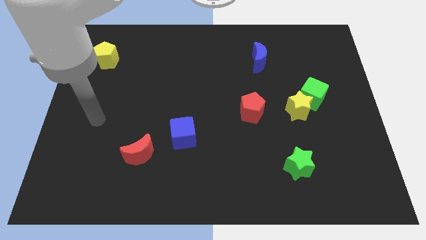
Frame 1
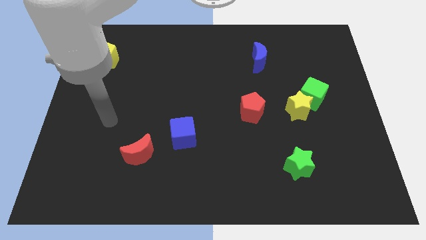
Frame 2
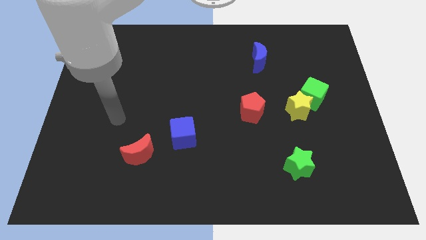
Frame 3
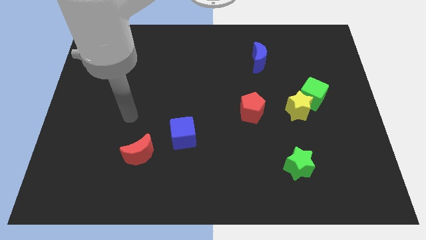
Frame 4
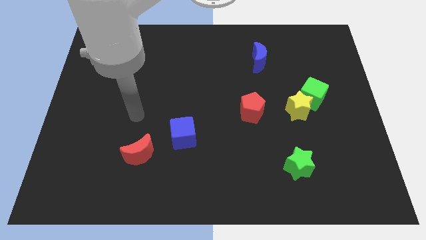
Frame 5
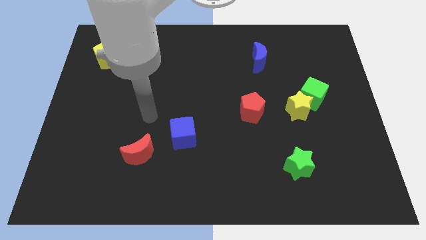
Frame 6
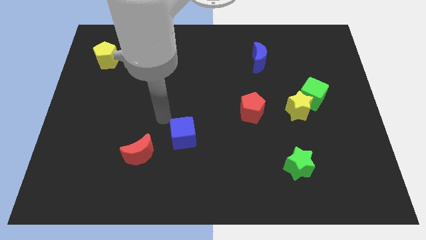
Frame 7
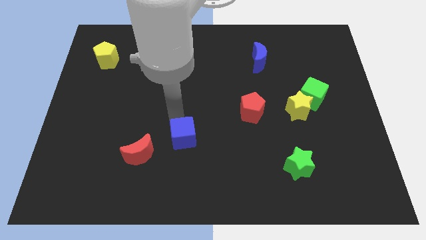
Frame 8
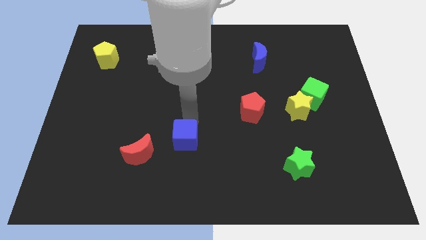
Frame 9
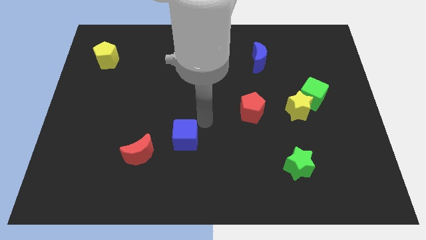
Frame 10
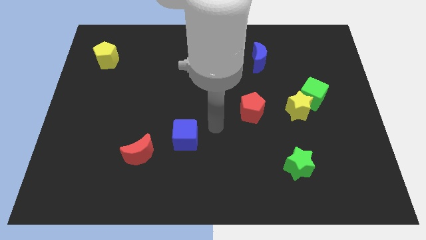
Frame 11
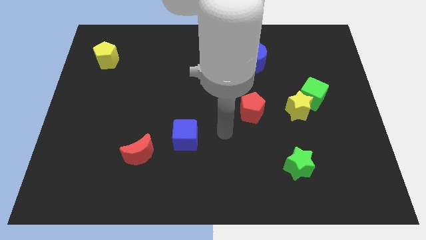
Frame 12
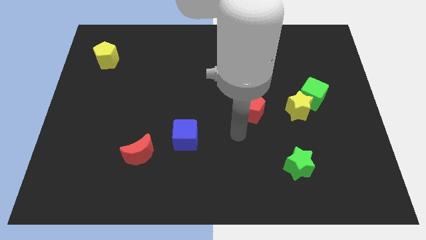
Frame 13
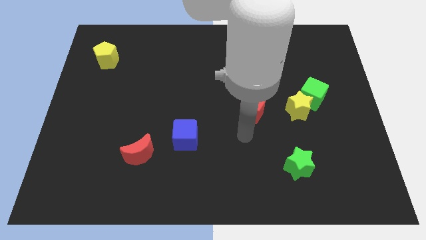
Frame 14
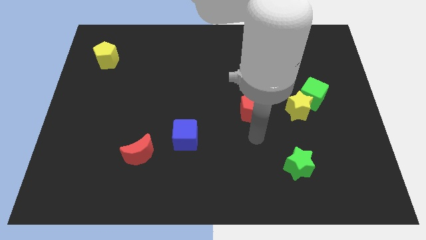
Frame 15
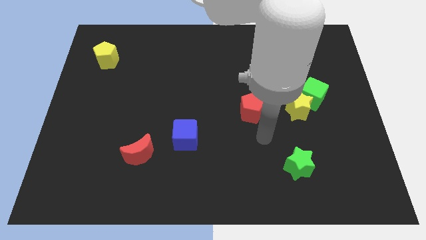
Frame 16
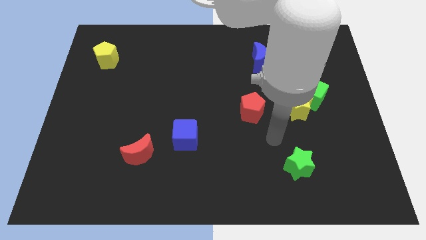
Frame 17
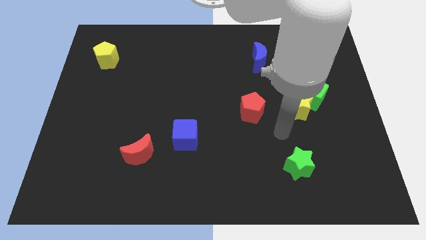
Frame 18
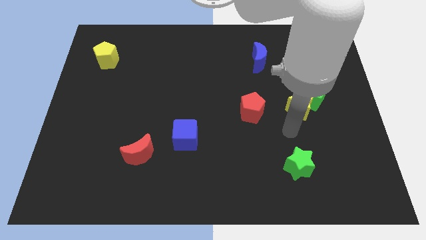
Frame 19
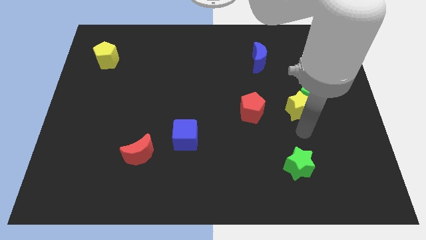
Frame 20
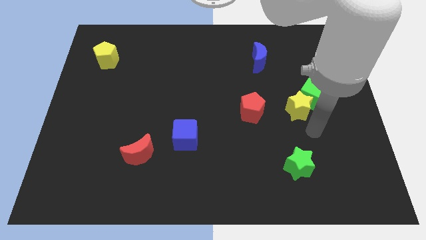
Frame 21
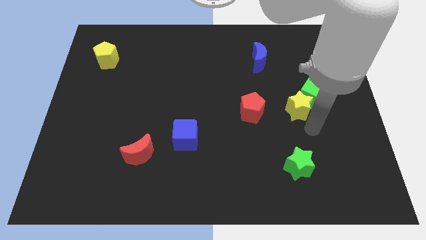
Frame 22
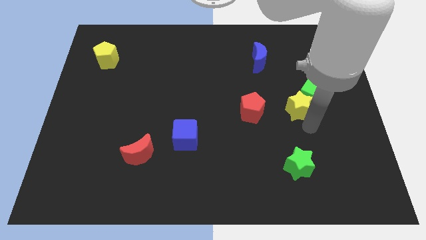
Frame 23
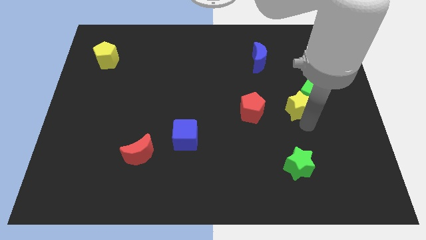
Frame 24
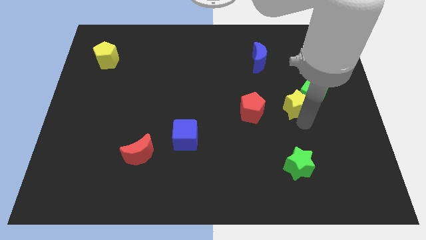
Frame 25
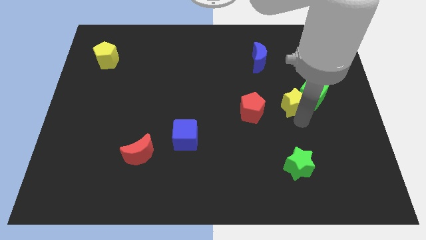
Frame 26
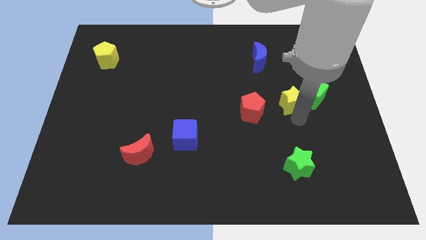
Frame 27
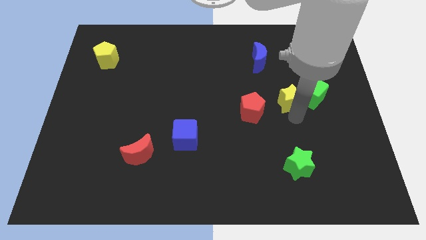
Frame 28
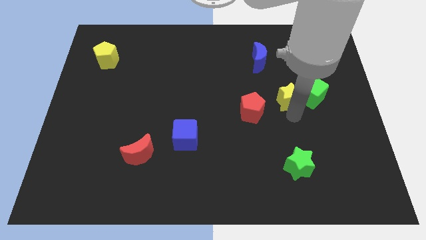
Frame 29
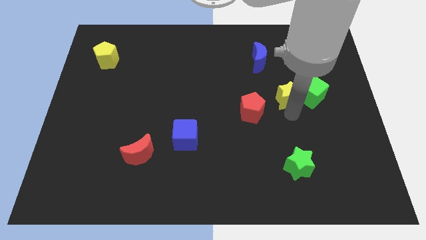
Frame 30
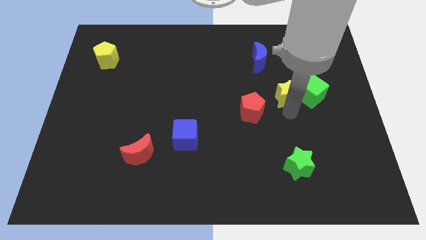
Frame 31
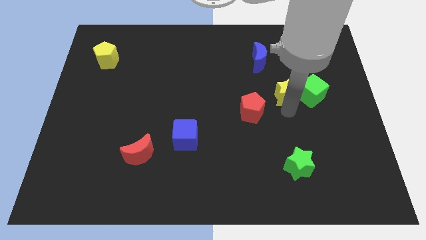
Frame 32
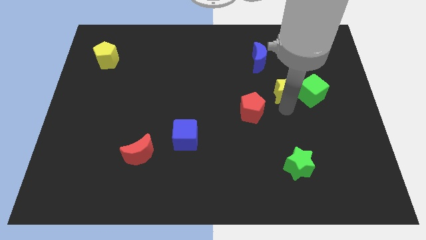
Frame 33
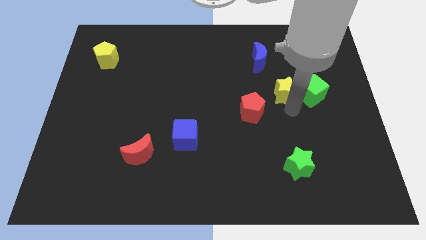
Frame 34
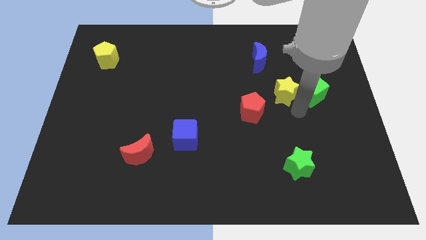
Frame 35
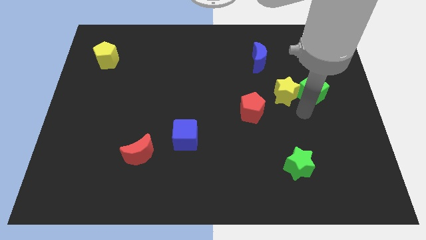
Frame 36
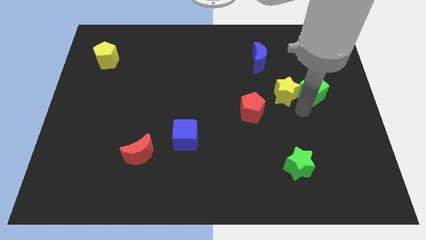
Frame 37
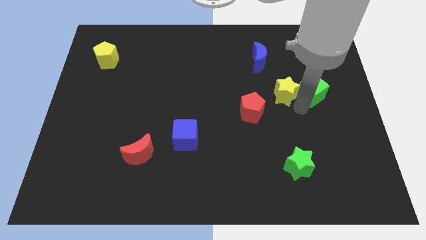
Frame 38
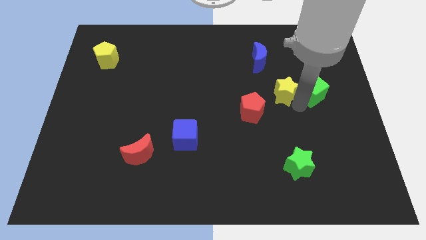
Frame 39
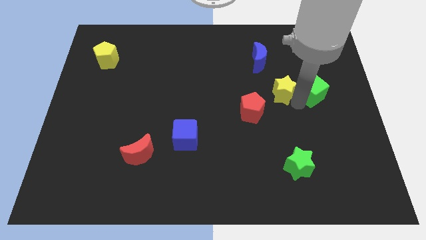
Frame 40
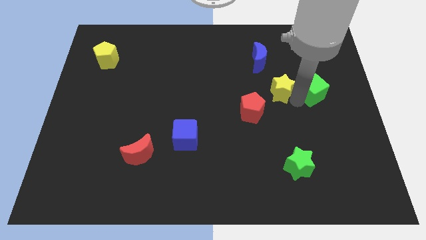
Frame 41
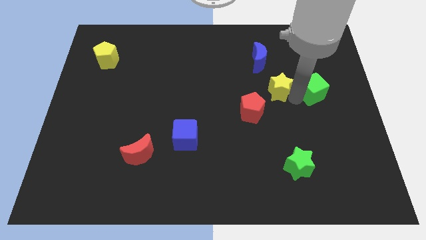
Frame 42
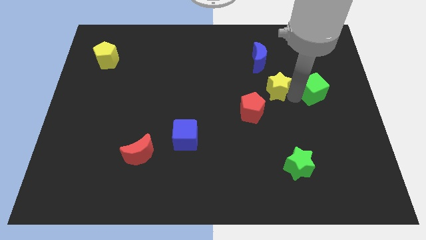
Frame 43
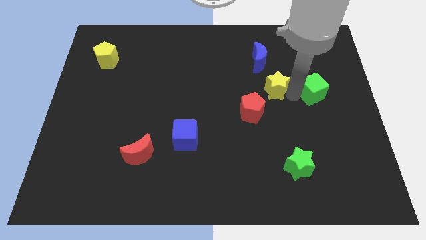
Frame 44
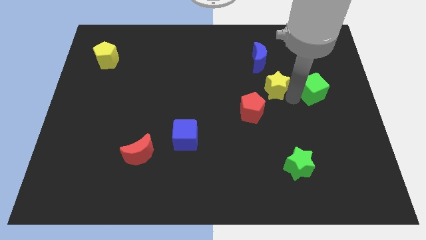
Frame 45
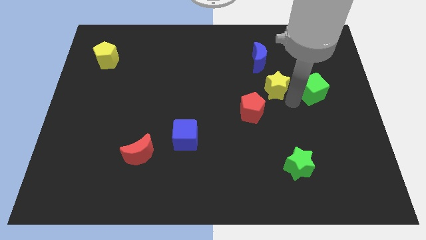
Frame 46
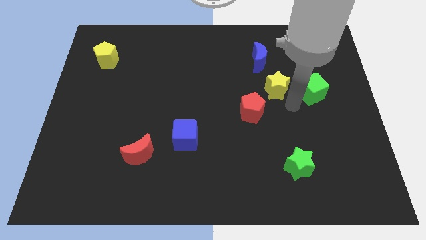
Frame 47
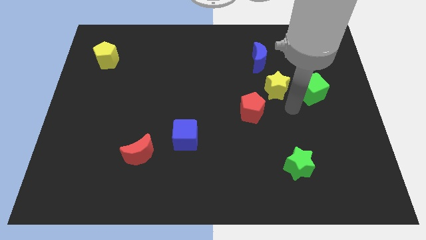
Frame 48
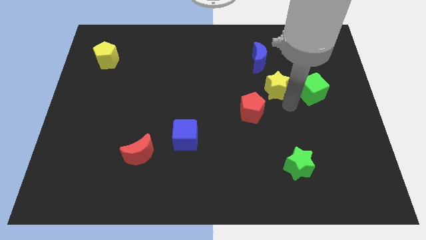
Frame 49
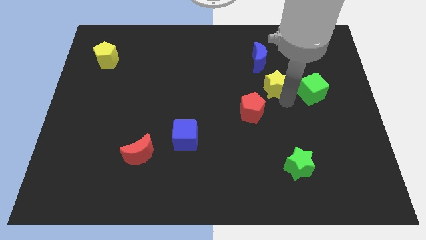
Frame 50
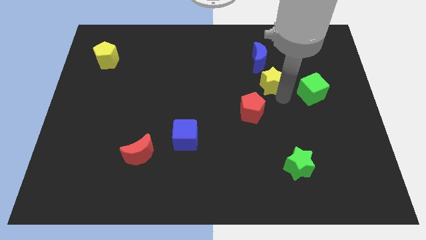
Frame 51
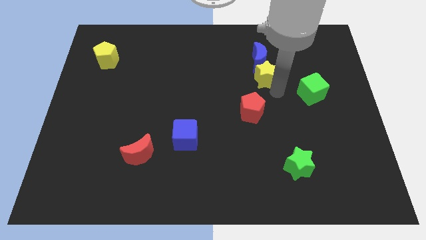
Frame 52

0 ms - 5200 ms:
slide the yellow star next to the blue moon

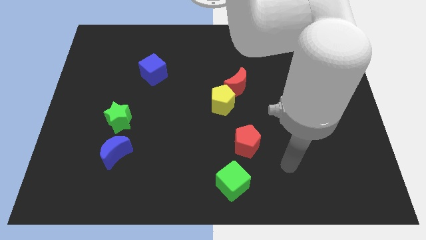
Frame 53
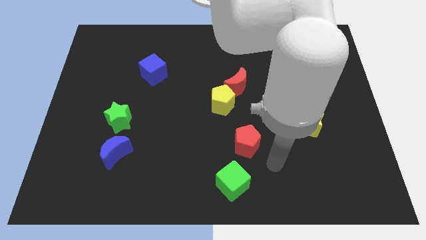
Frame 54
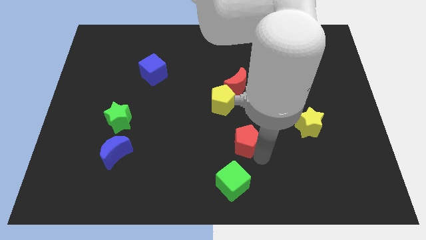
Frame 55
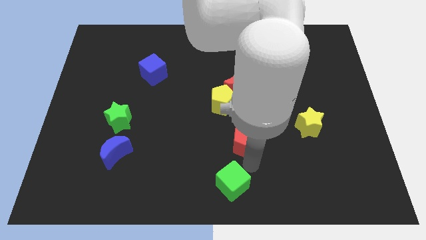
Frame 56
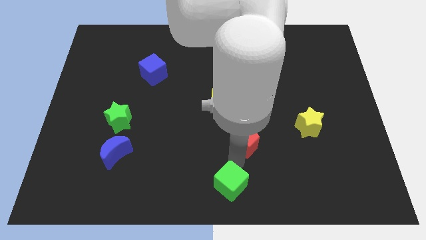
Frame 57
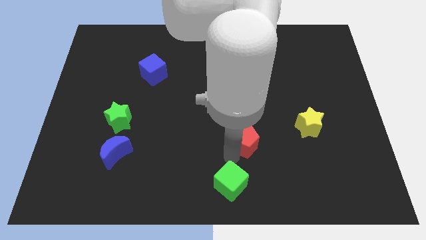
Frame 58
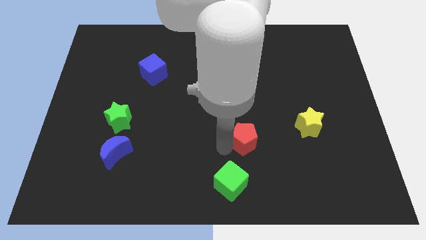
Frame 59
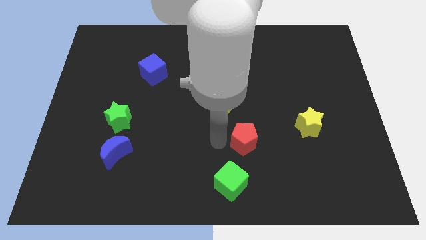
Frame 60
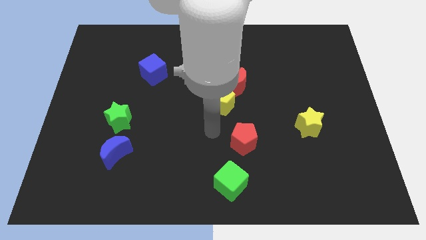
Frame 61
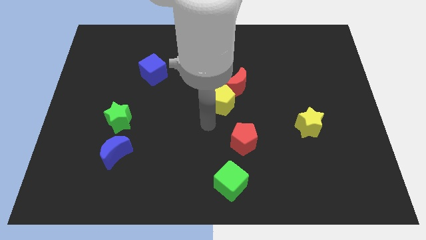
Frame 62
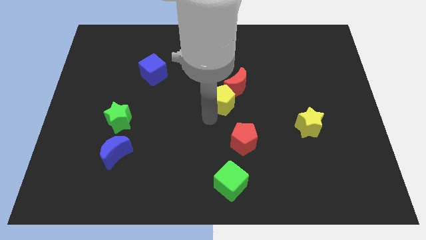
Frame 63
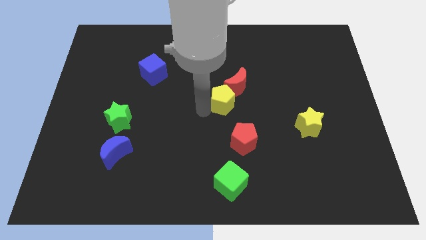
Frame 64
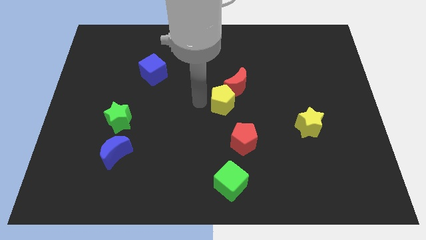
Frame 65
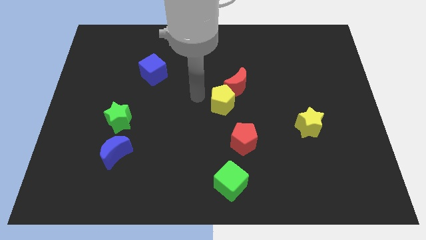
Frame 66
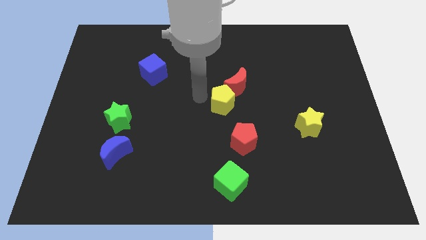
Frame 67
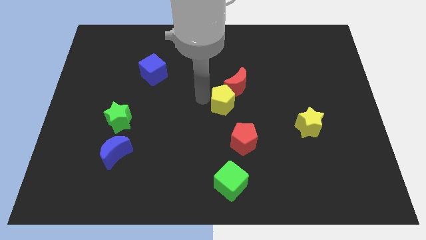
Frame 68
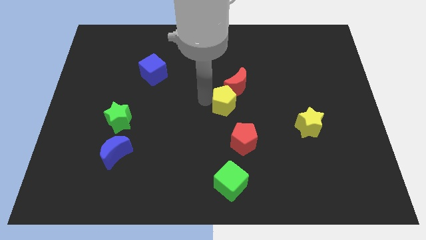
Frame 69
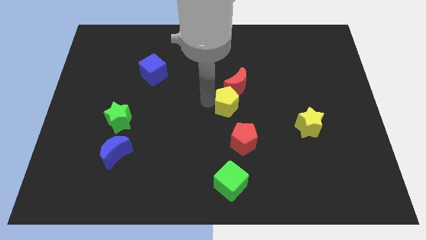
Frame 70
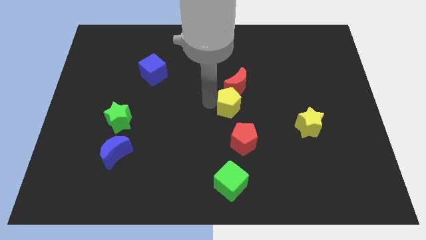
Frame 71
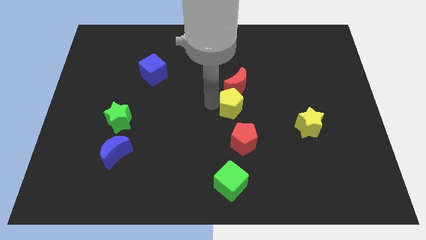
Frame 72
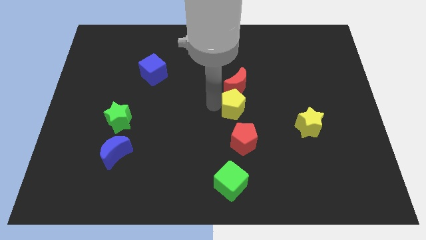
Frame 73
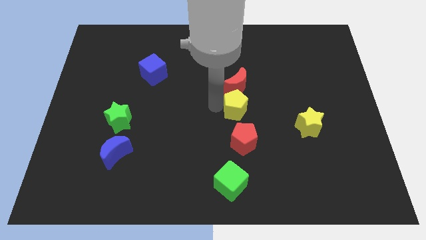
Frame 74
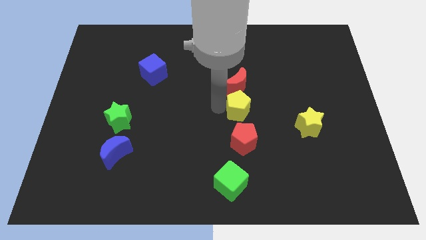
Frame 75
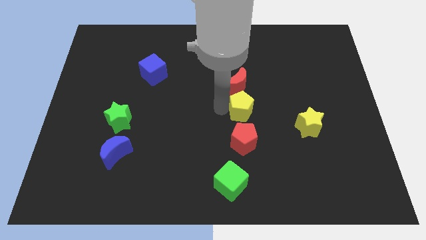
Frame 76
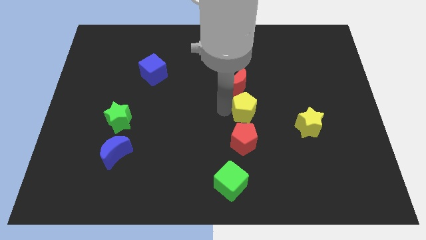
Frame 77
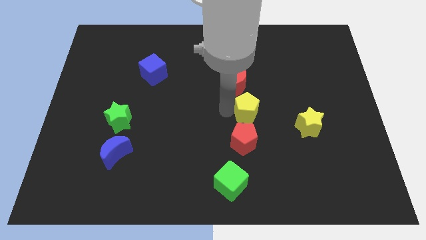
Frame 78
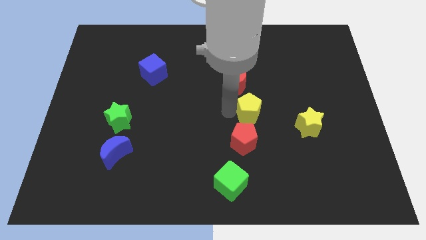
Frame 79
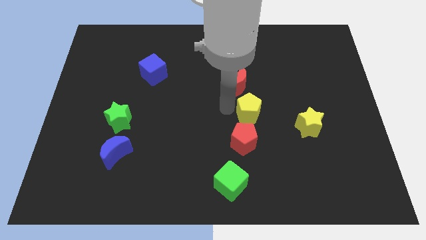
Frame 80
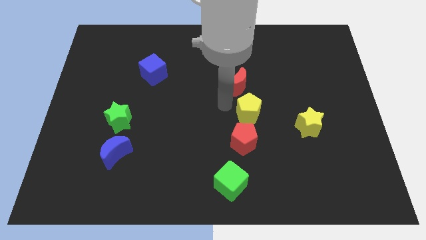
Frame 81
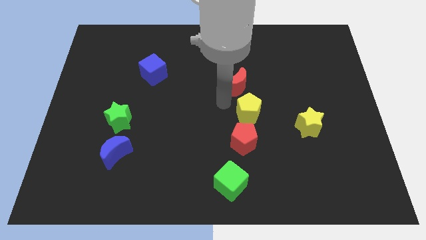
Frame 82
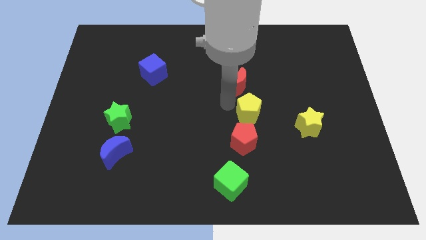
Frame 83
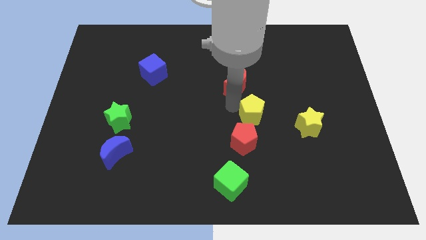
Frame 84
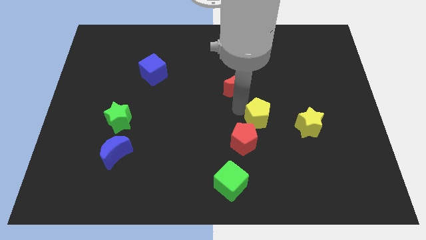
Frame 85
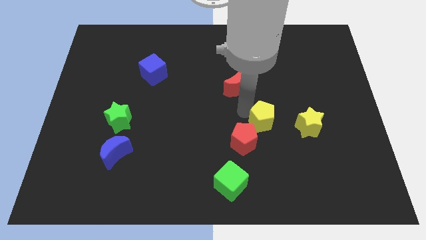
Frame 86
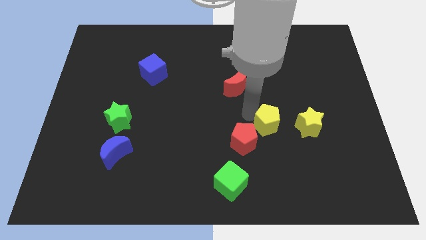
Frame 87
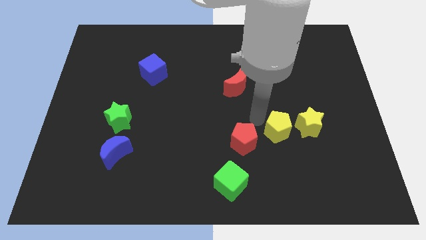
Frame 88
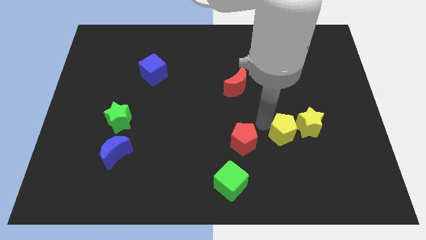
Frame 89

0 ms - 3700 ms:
push the yellow pentagon towards the yellow star
